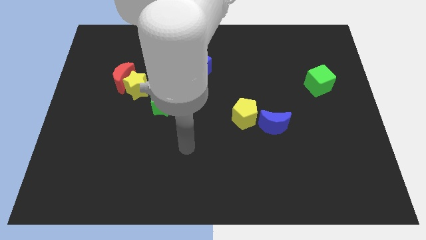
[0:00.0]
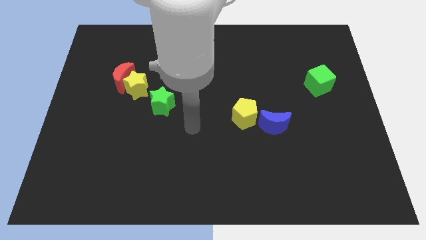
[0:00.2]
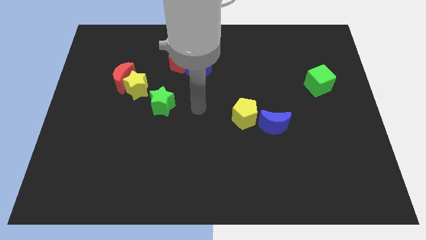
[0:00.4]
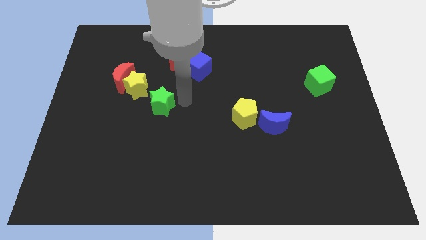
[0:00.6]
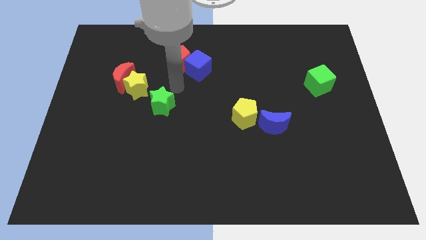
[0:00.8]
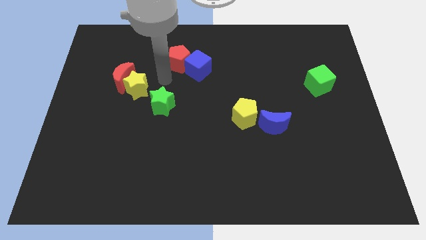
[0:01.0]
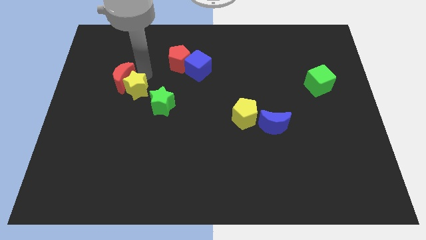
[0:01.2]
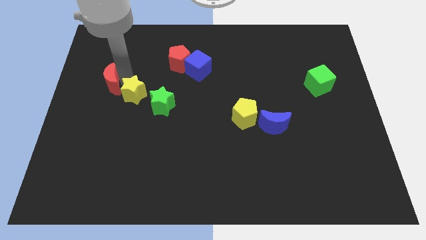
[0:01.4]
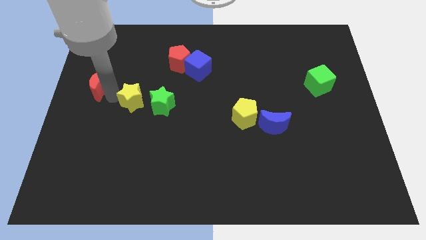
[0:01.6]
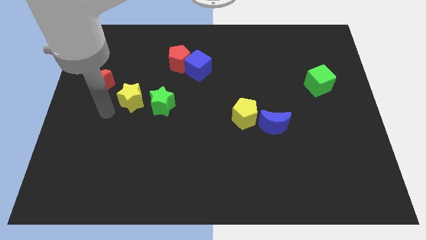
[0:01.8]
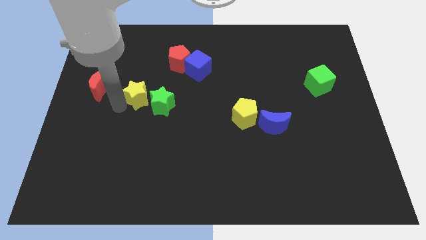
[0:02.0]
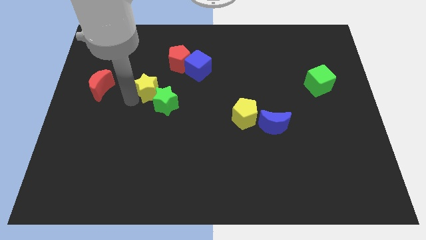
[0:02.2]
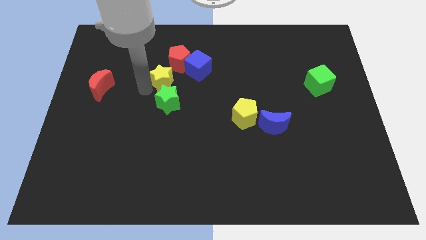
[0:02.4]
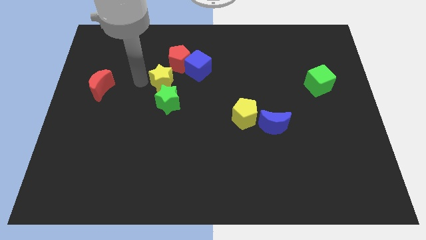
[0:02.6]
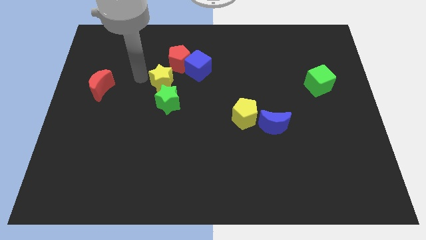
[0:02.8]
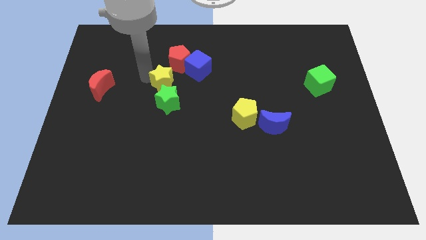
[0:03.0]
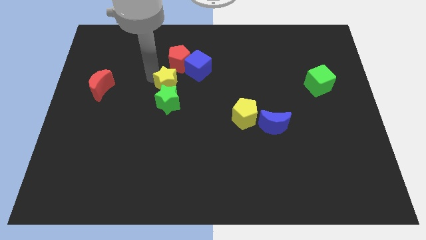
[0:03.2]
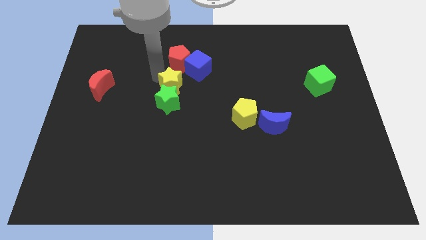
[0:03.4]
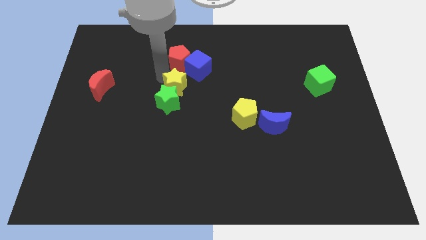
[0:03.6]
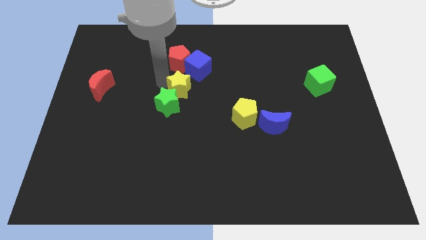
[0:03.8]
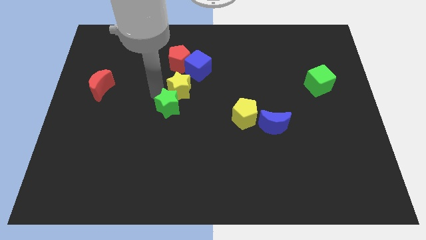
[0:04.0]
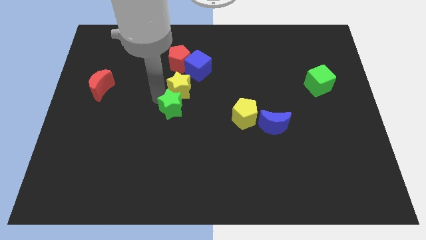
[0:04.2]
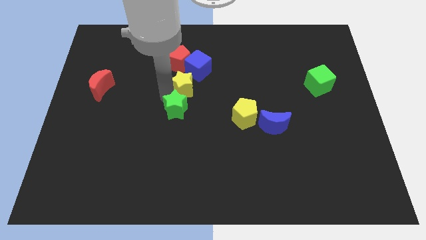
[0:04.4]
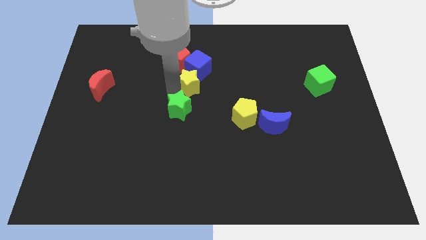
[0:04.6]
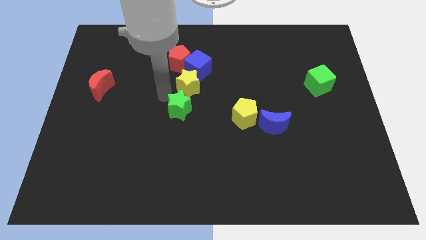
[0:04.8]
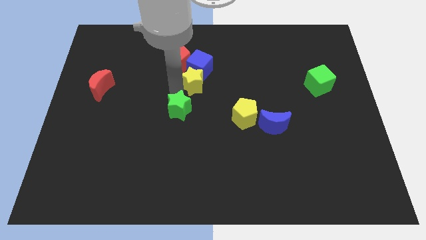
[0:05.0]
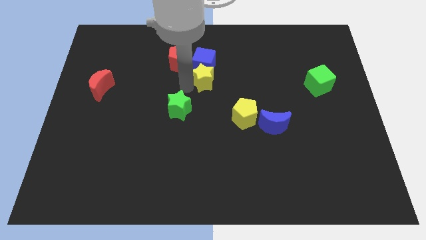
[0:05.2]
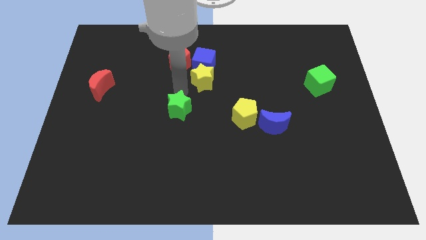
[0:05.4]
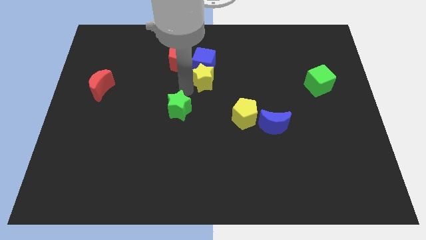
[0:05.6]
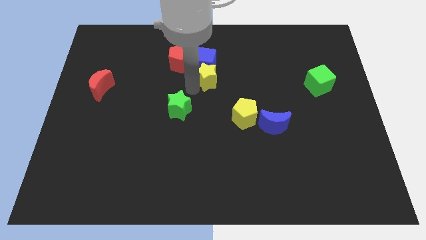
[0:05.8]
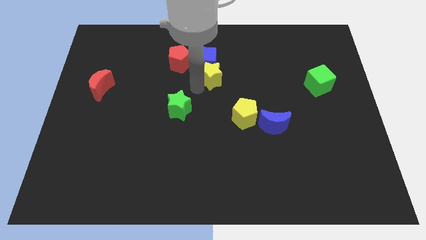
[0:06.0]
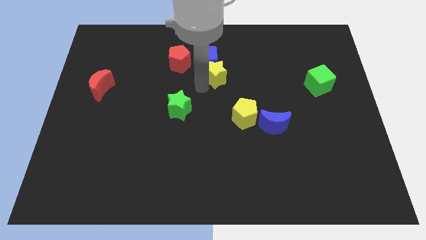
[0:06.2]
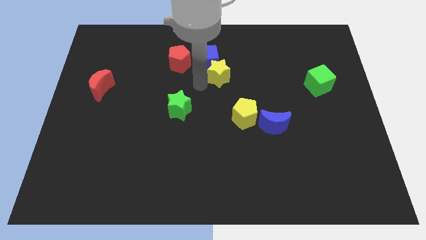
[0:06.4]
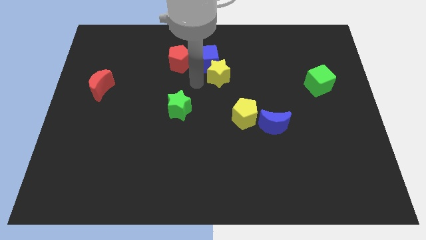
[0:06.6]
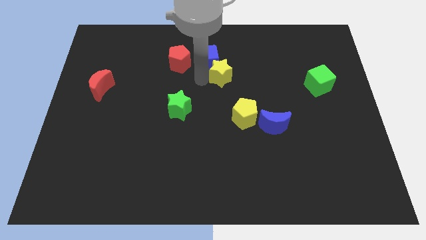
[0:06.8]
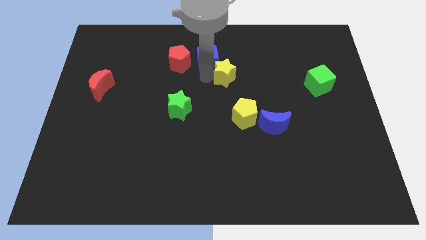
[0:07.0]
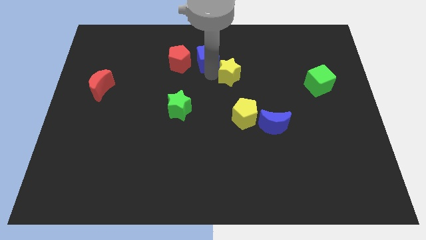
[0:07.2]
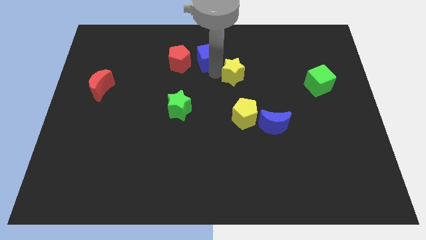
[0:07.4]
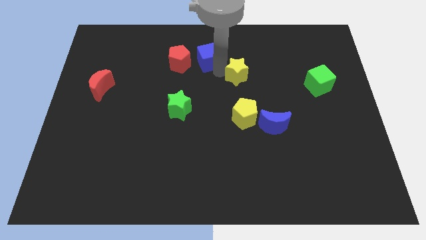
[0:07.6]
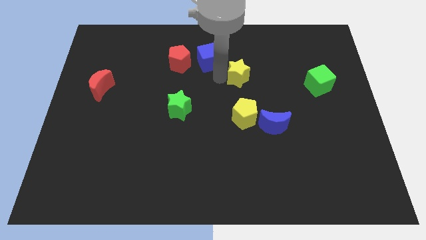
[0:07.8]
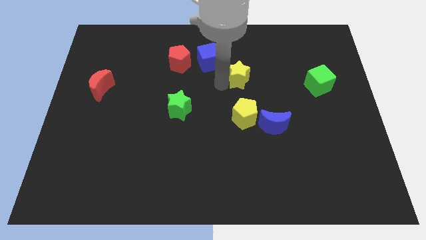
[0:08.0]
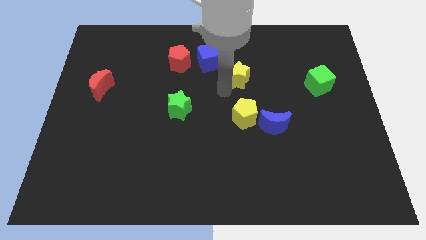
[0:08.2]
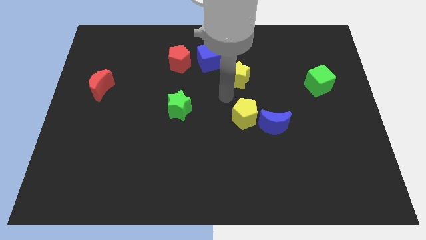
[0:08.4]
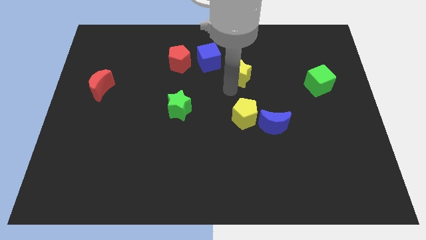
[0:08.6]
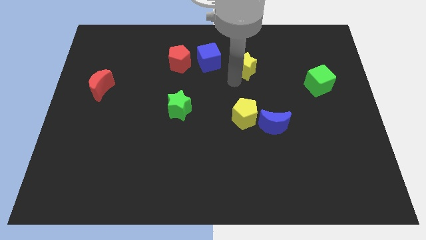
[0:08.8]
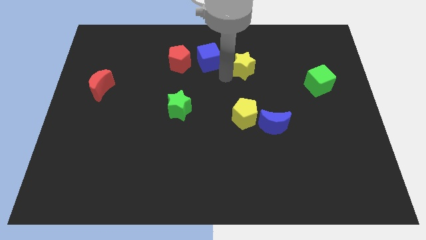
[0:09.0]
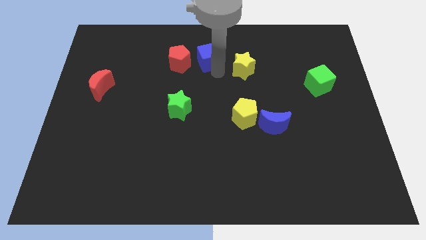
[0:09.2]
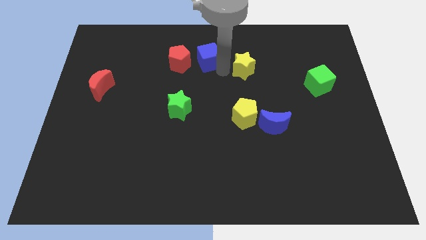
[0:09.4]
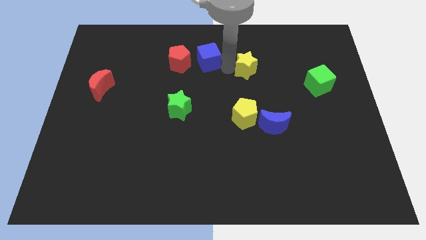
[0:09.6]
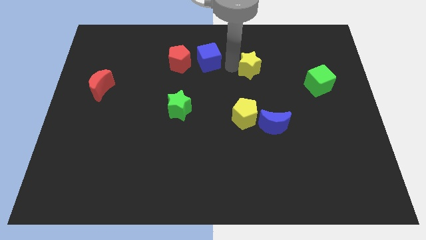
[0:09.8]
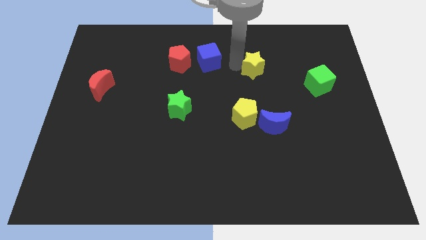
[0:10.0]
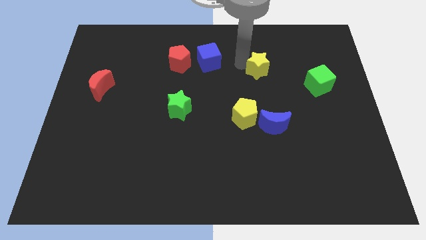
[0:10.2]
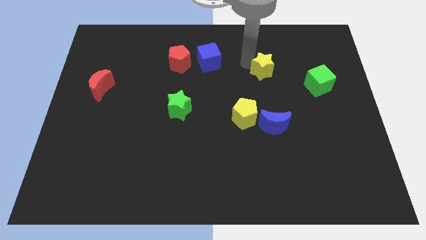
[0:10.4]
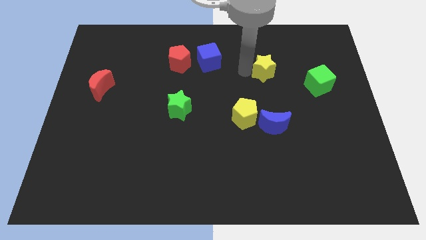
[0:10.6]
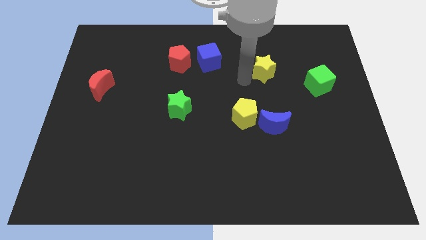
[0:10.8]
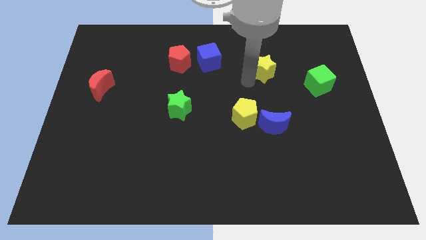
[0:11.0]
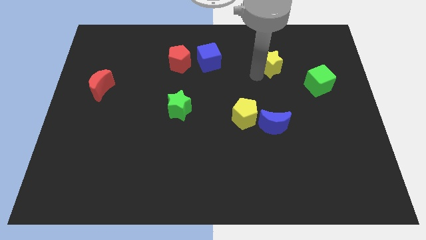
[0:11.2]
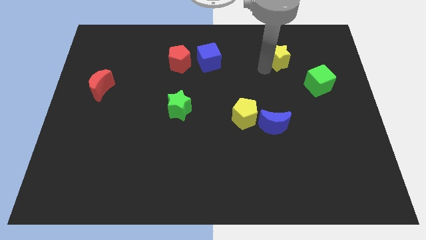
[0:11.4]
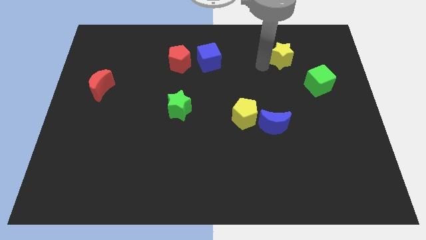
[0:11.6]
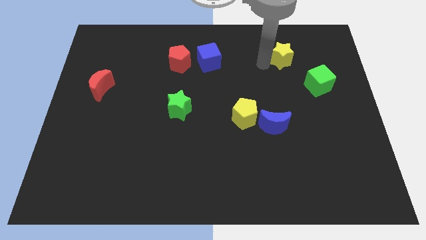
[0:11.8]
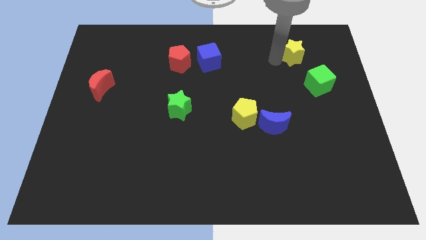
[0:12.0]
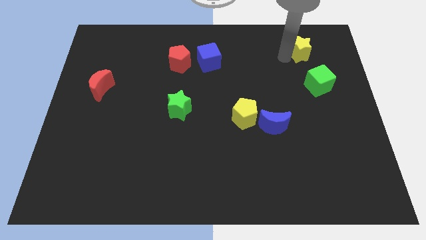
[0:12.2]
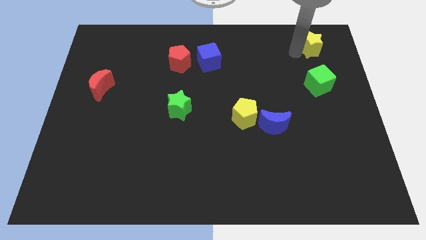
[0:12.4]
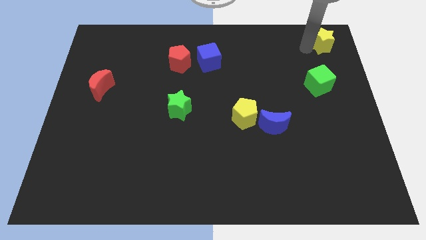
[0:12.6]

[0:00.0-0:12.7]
move the yellow star to the top right
